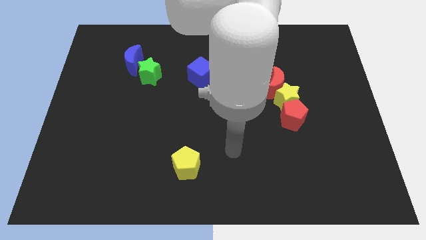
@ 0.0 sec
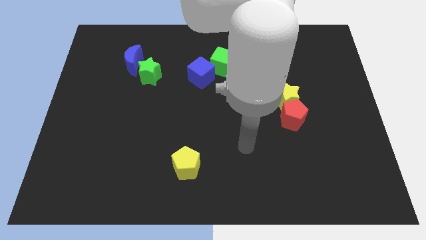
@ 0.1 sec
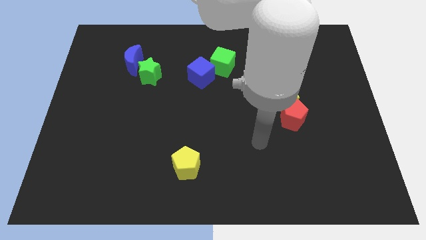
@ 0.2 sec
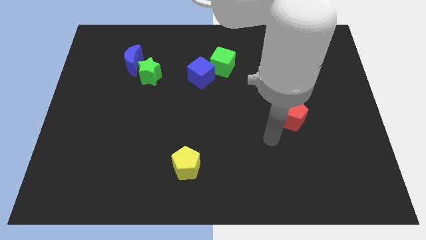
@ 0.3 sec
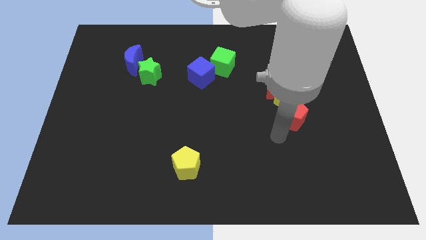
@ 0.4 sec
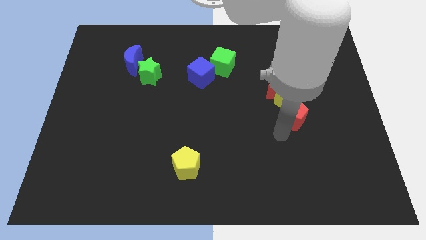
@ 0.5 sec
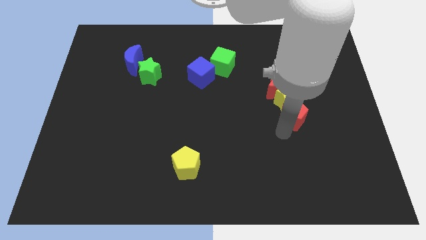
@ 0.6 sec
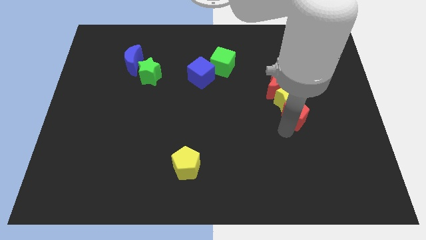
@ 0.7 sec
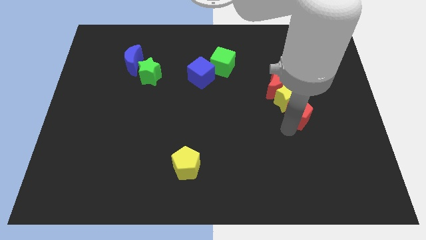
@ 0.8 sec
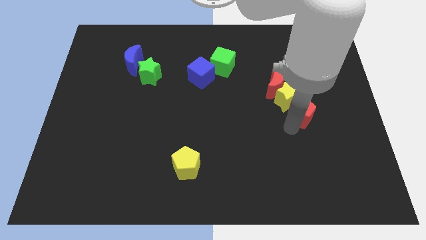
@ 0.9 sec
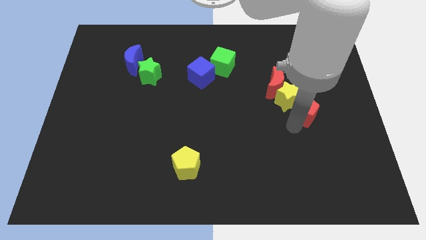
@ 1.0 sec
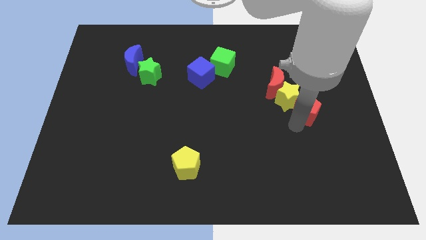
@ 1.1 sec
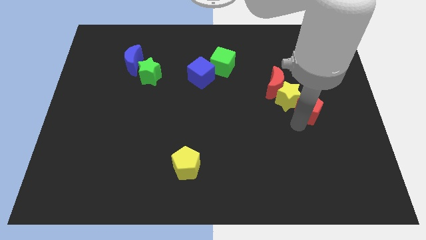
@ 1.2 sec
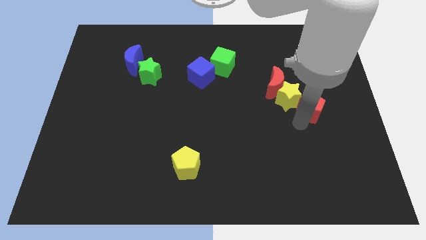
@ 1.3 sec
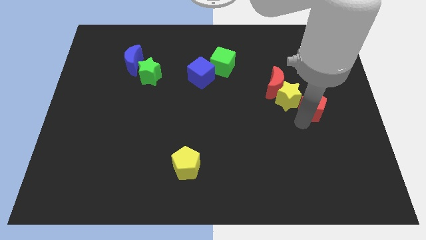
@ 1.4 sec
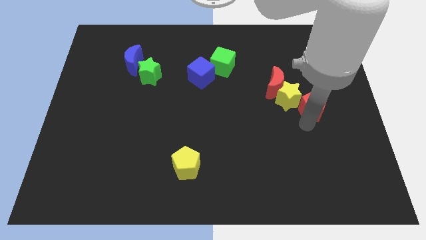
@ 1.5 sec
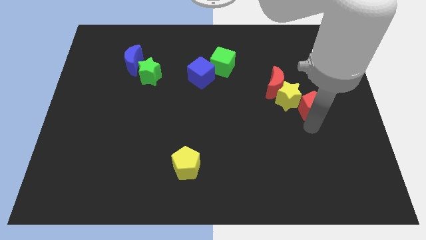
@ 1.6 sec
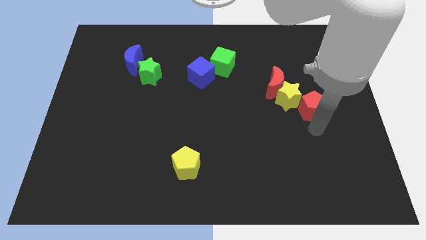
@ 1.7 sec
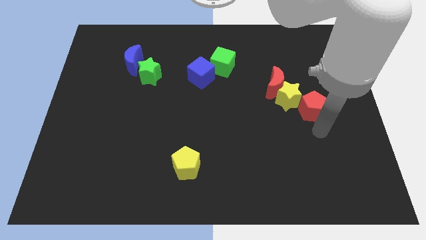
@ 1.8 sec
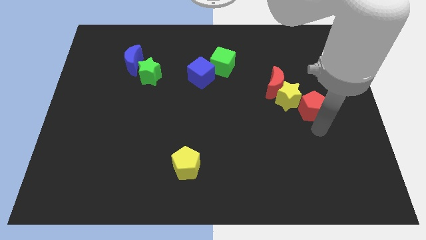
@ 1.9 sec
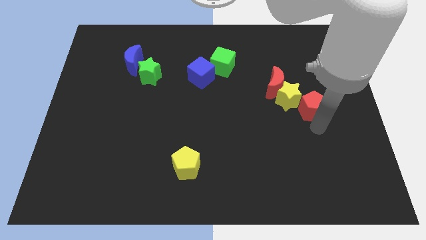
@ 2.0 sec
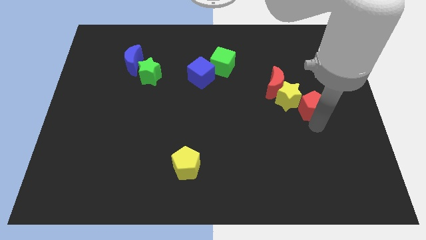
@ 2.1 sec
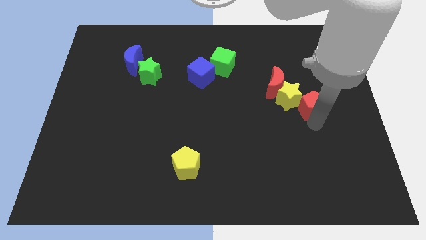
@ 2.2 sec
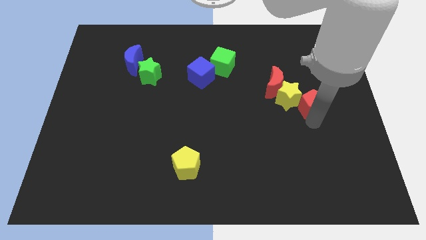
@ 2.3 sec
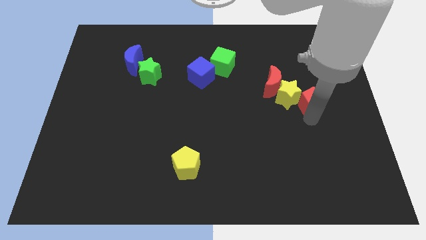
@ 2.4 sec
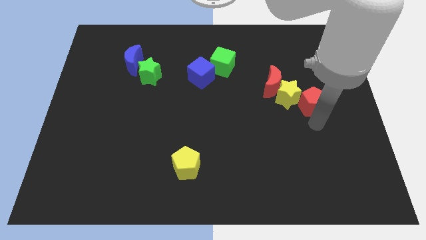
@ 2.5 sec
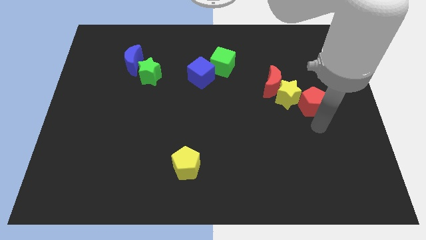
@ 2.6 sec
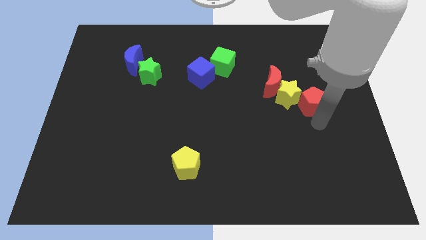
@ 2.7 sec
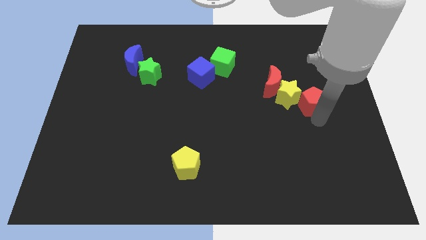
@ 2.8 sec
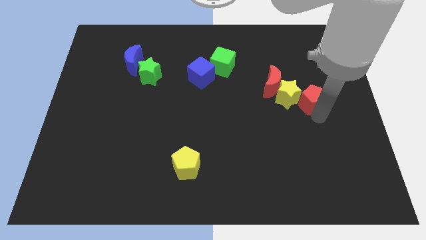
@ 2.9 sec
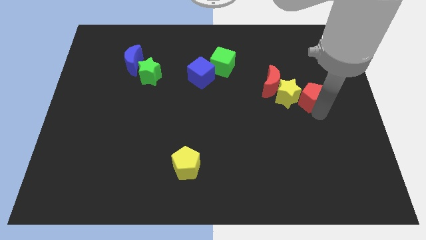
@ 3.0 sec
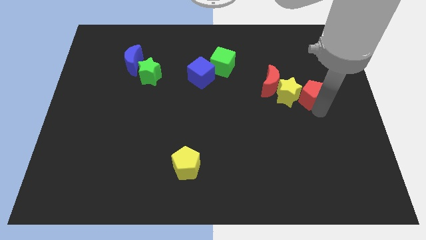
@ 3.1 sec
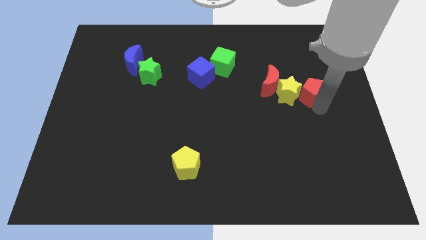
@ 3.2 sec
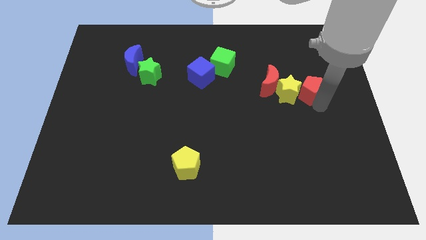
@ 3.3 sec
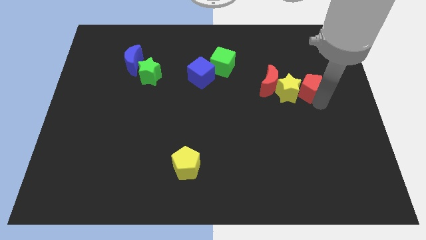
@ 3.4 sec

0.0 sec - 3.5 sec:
move the red pentagon up a little

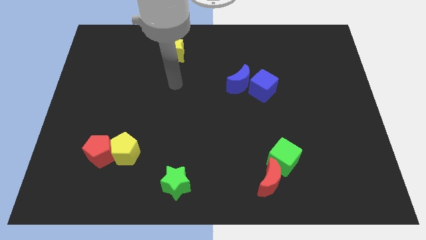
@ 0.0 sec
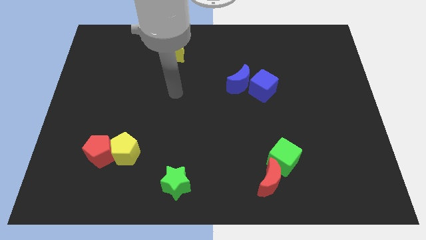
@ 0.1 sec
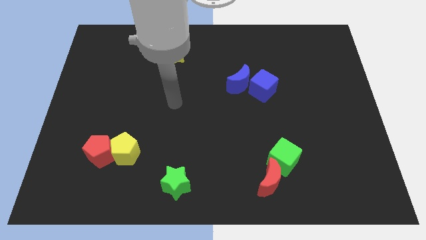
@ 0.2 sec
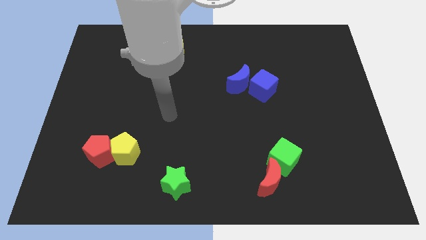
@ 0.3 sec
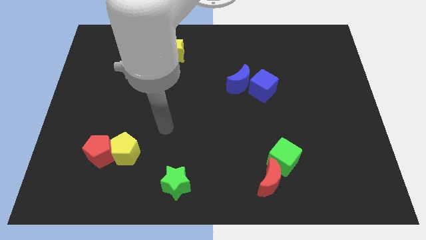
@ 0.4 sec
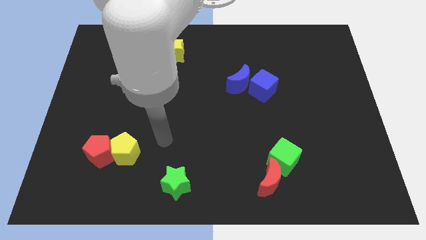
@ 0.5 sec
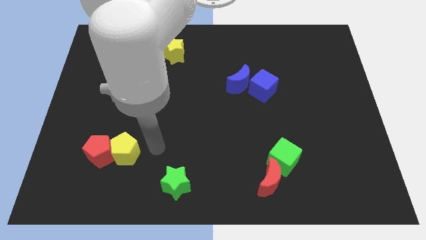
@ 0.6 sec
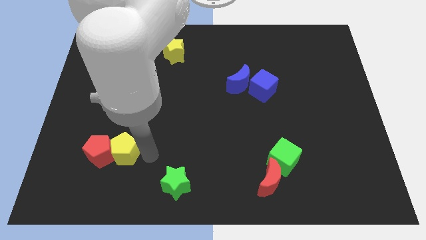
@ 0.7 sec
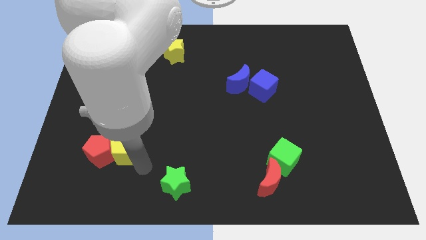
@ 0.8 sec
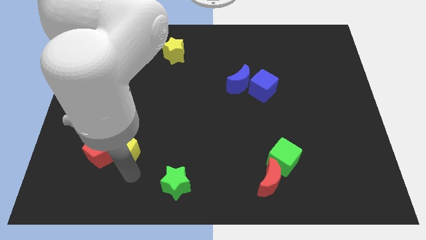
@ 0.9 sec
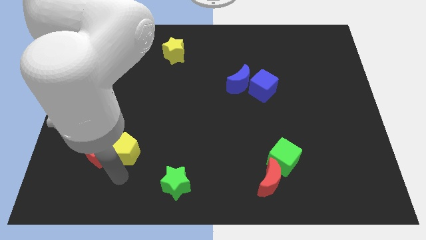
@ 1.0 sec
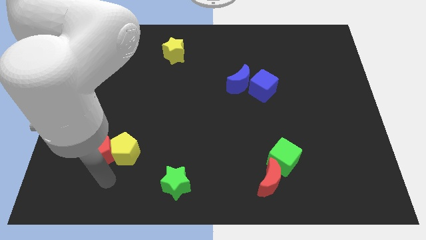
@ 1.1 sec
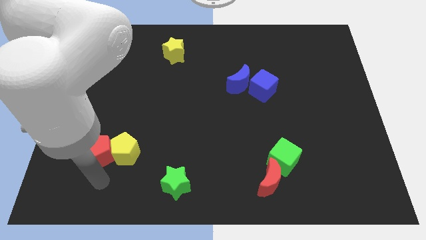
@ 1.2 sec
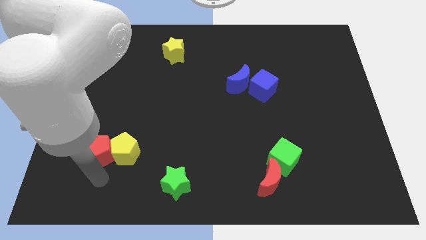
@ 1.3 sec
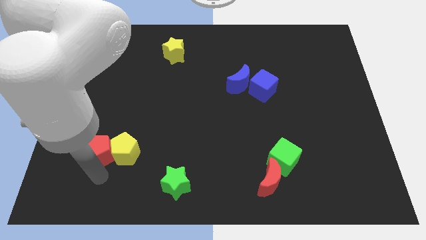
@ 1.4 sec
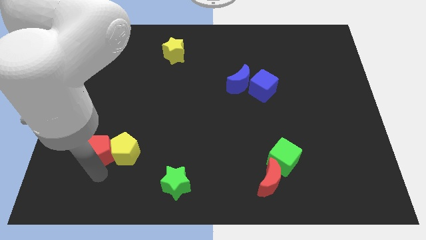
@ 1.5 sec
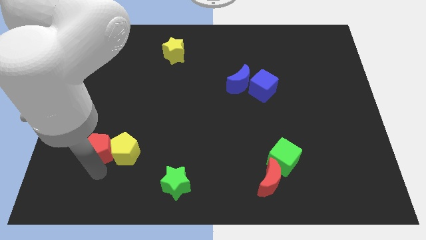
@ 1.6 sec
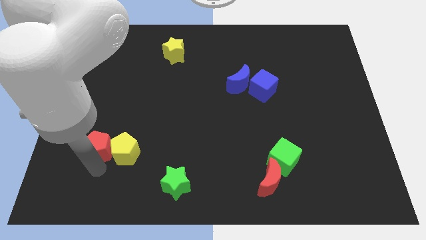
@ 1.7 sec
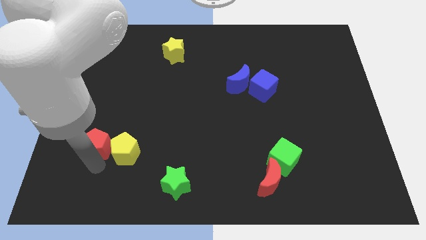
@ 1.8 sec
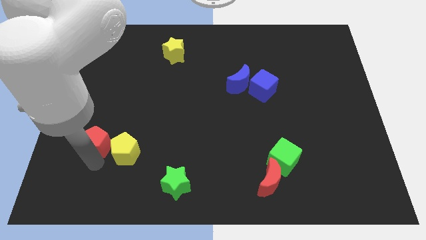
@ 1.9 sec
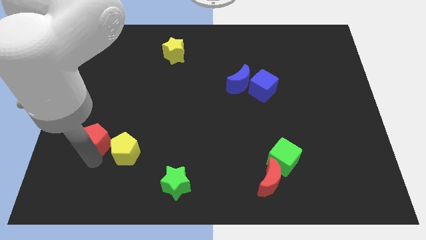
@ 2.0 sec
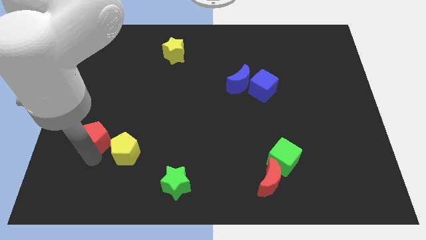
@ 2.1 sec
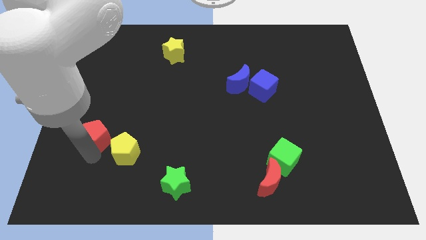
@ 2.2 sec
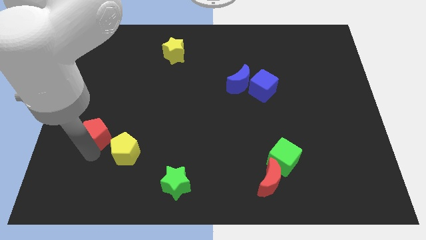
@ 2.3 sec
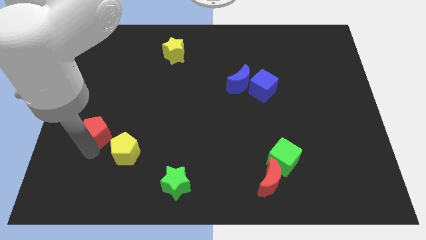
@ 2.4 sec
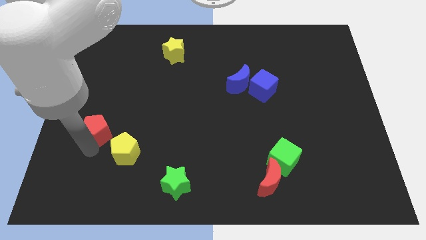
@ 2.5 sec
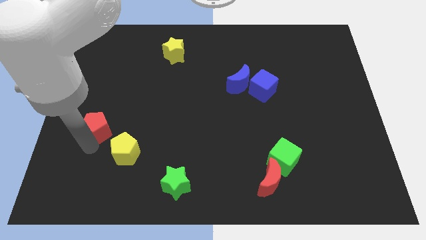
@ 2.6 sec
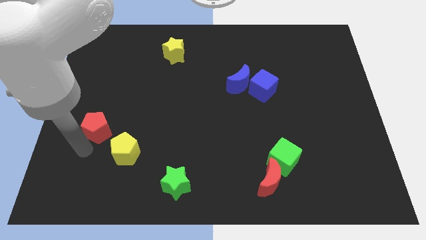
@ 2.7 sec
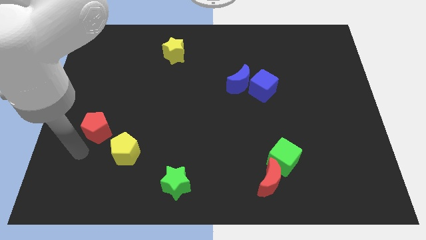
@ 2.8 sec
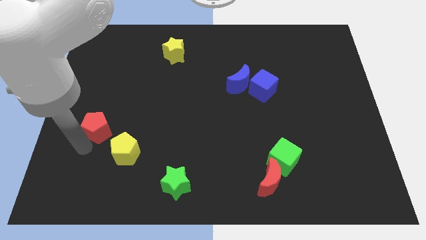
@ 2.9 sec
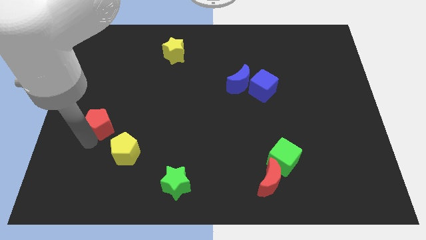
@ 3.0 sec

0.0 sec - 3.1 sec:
move the red pentagon upwards a little

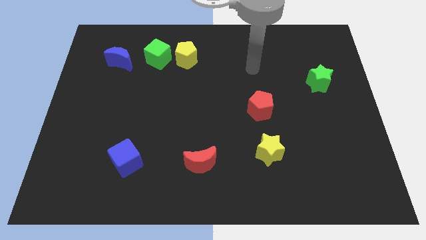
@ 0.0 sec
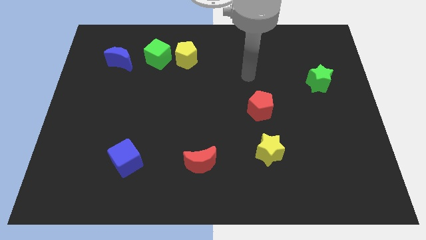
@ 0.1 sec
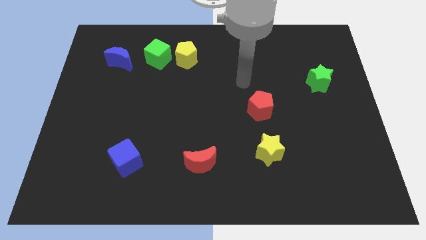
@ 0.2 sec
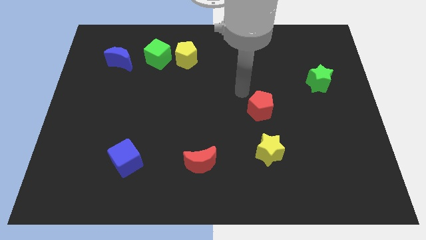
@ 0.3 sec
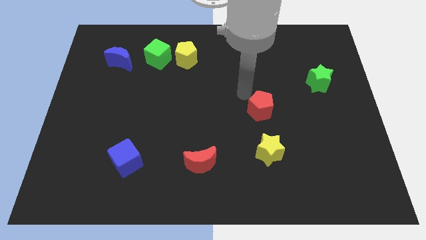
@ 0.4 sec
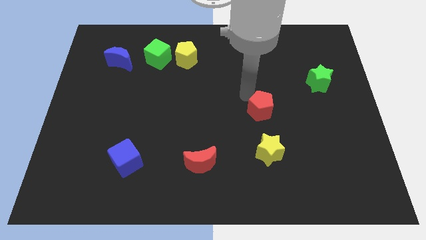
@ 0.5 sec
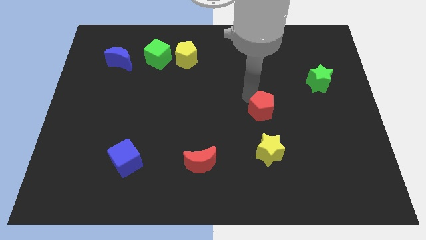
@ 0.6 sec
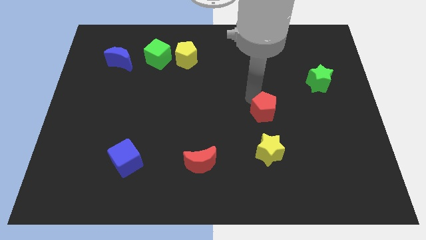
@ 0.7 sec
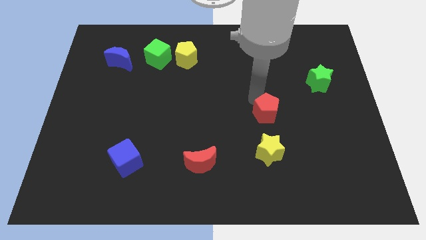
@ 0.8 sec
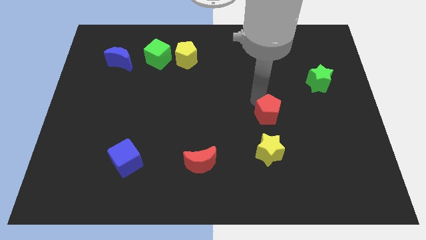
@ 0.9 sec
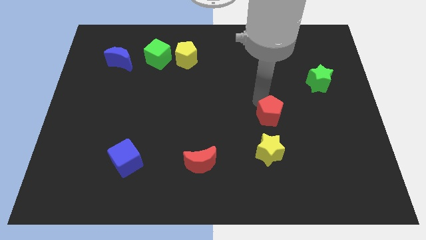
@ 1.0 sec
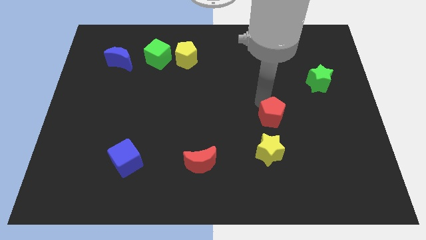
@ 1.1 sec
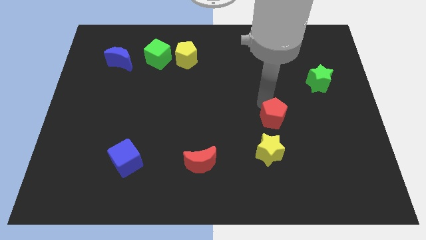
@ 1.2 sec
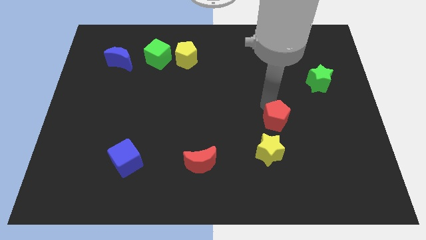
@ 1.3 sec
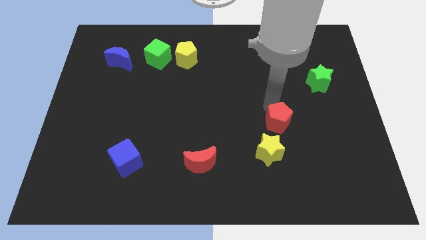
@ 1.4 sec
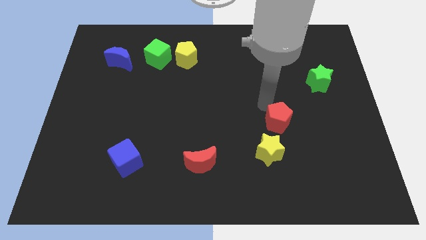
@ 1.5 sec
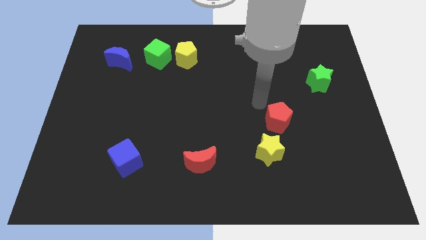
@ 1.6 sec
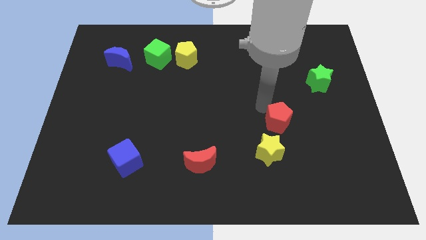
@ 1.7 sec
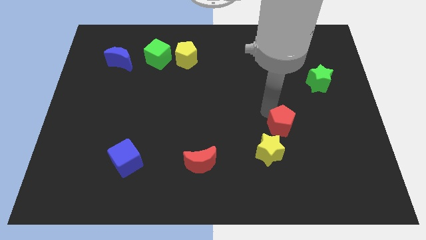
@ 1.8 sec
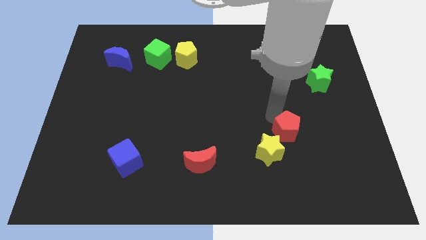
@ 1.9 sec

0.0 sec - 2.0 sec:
push the red pentagon diagonally downwards and to the right somewhat
